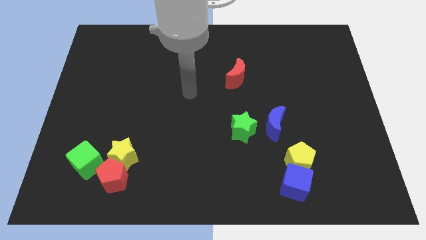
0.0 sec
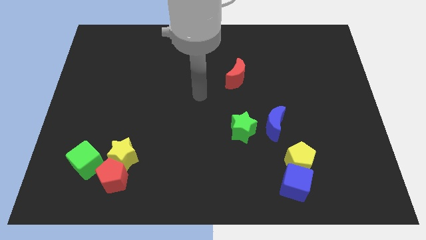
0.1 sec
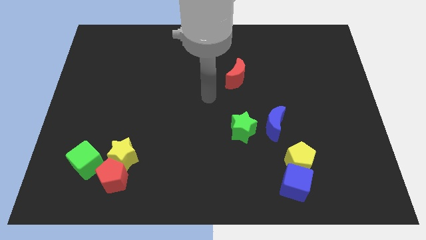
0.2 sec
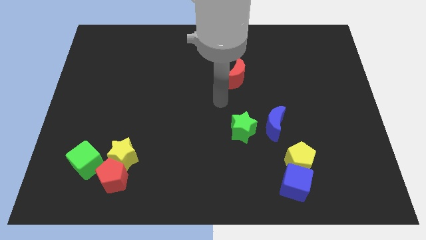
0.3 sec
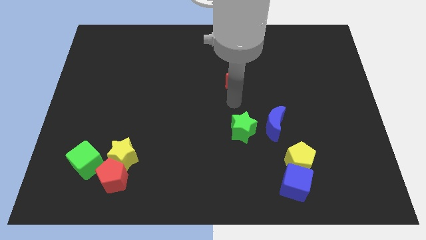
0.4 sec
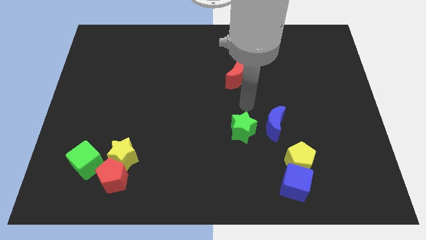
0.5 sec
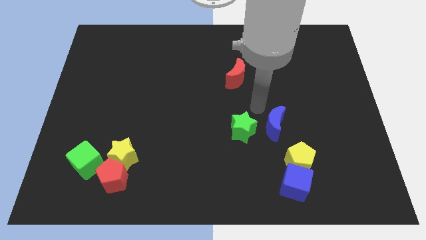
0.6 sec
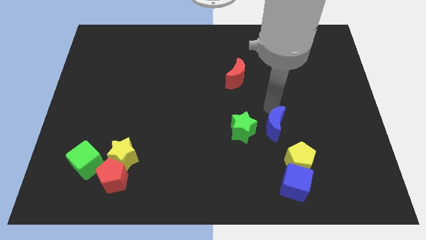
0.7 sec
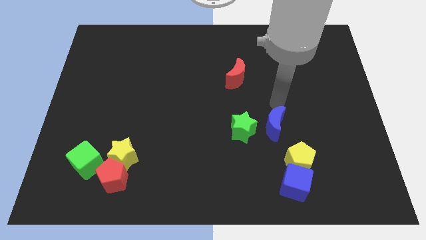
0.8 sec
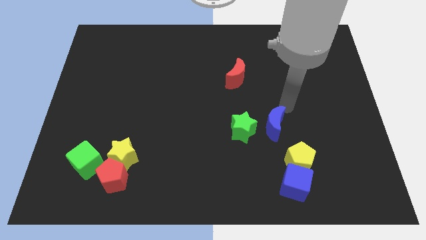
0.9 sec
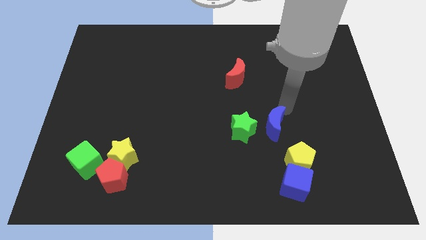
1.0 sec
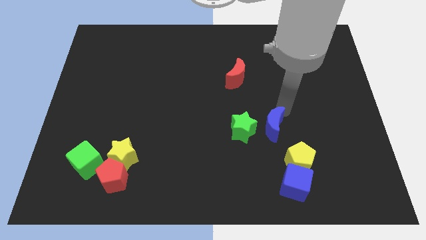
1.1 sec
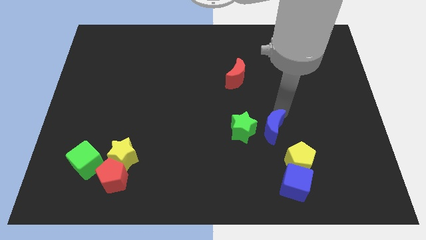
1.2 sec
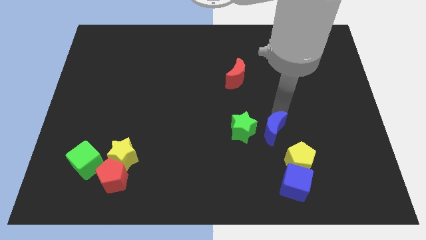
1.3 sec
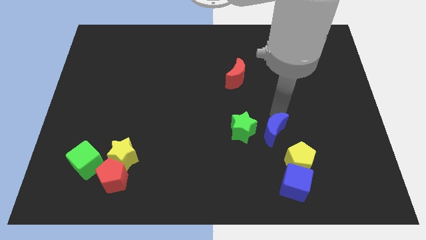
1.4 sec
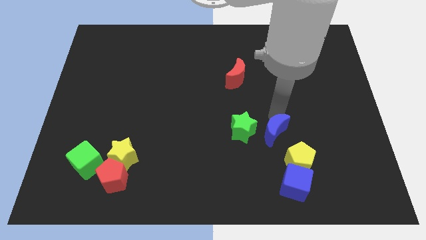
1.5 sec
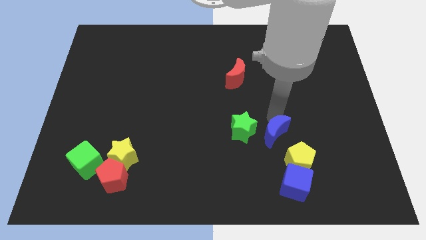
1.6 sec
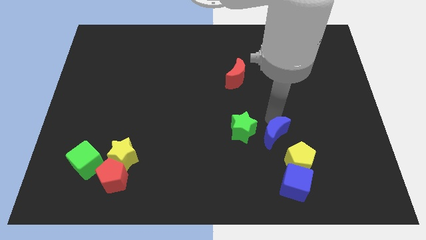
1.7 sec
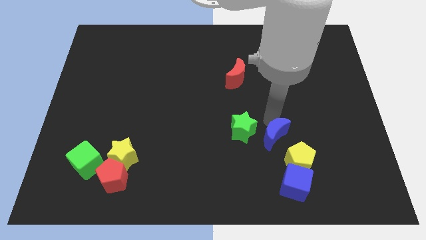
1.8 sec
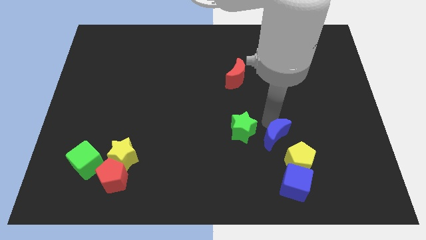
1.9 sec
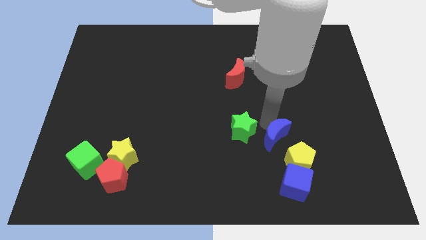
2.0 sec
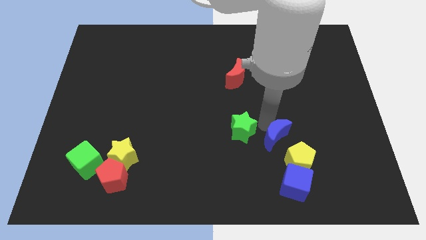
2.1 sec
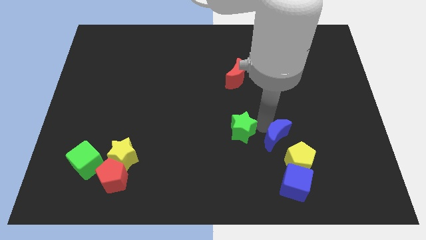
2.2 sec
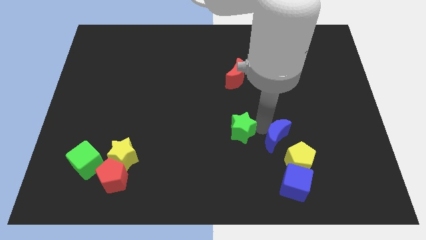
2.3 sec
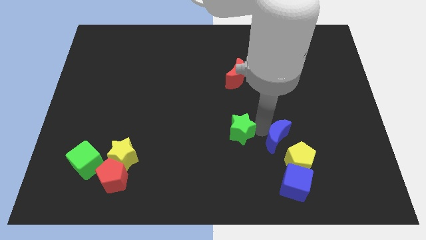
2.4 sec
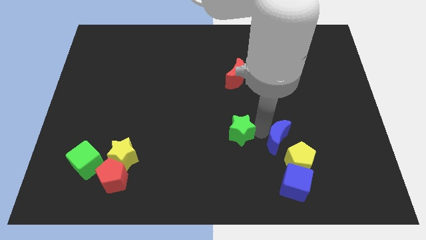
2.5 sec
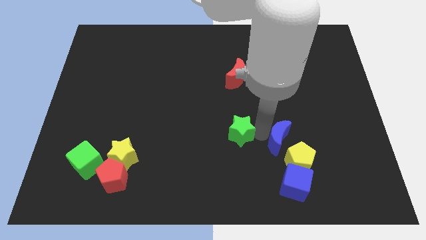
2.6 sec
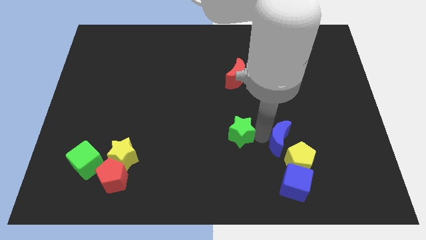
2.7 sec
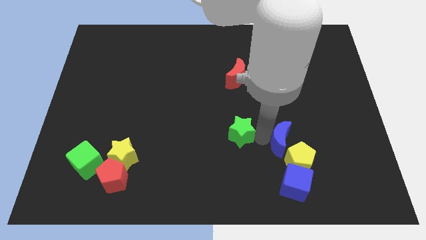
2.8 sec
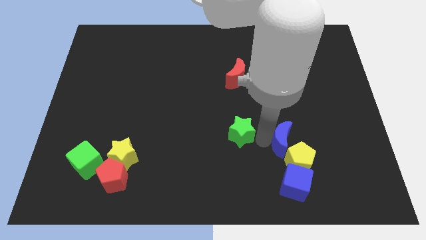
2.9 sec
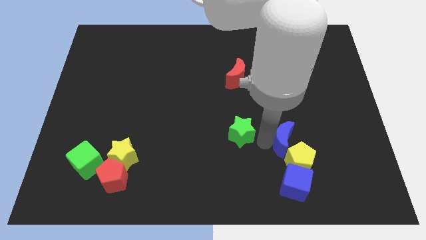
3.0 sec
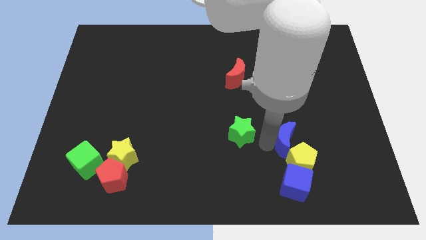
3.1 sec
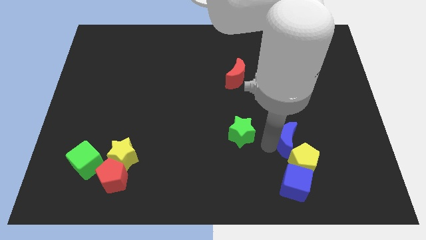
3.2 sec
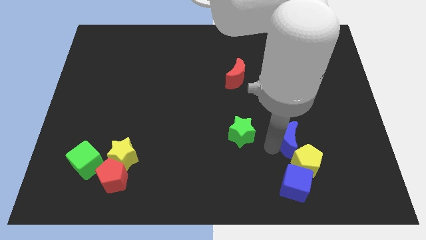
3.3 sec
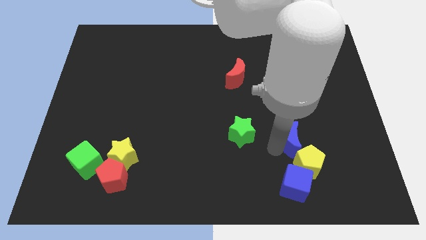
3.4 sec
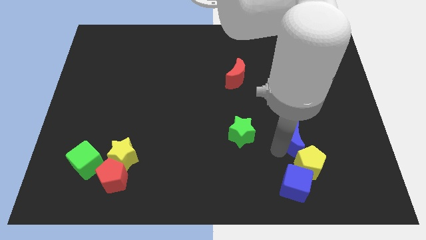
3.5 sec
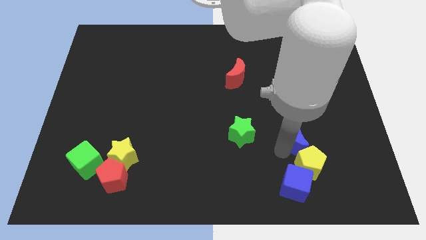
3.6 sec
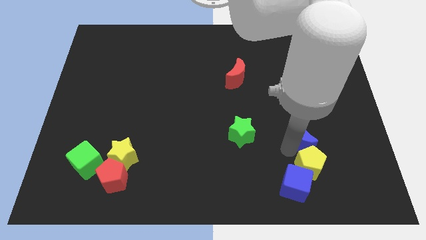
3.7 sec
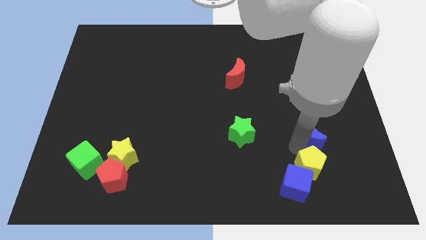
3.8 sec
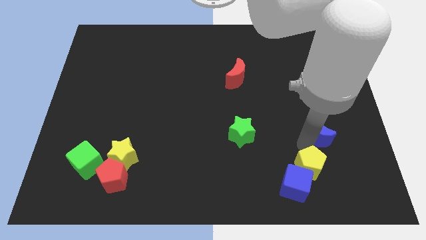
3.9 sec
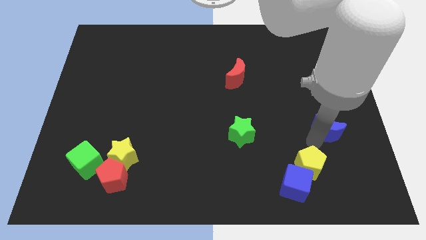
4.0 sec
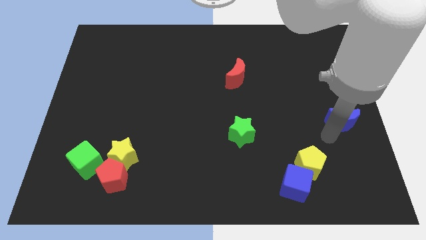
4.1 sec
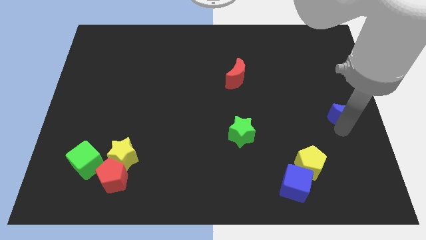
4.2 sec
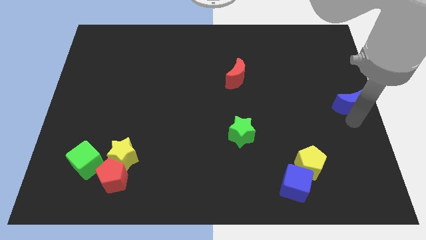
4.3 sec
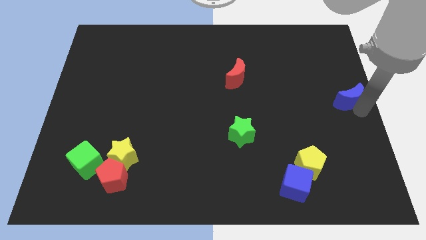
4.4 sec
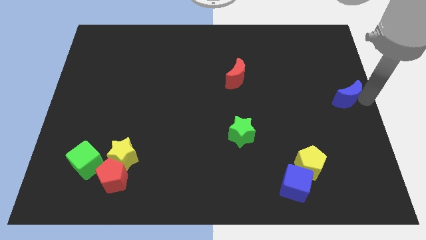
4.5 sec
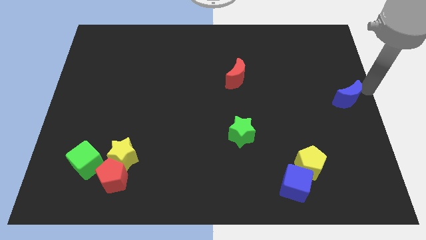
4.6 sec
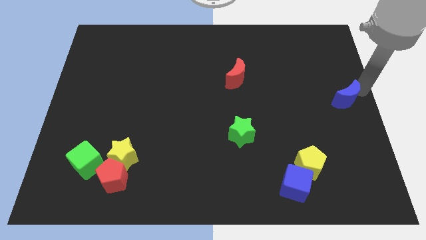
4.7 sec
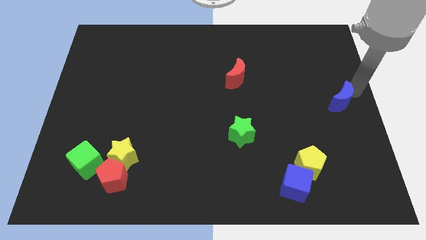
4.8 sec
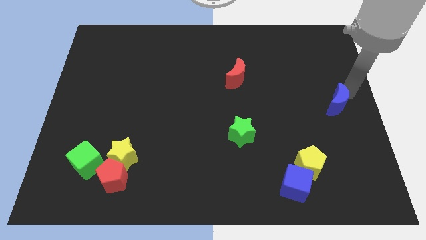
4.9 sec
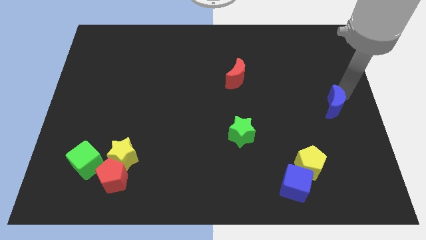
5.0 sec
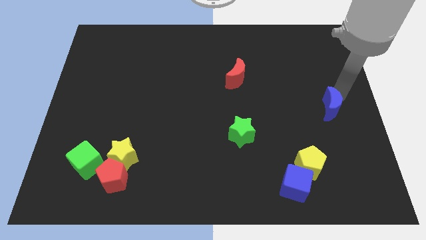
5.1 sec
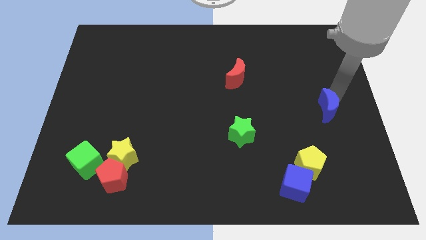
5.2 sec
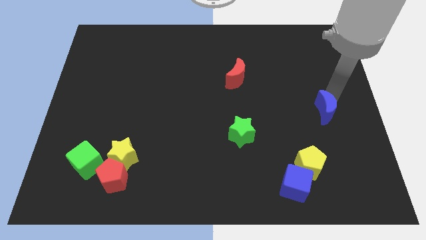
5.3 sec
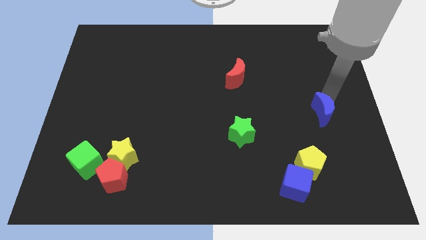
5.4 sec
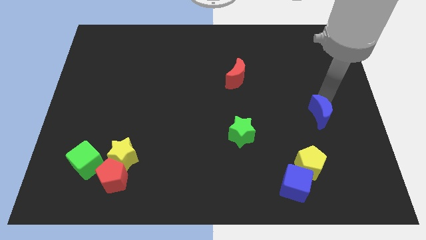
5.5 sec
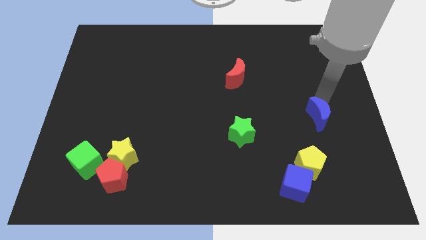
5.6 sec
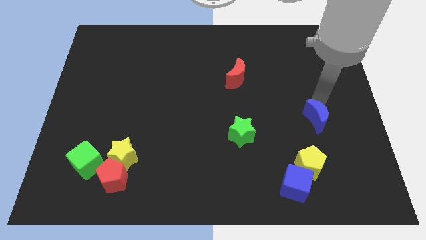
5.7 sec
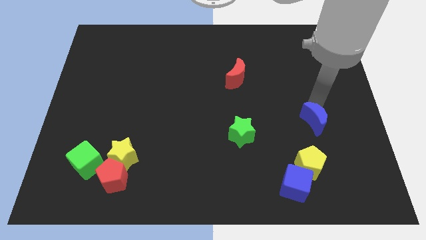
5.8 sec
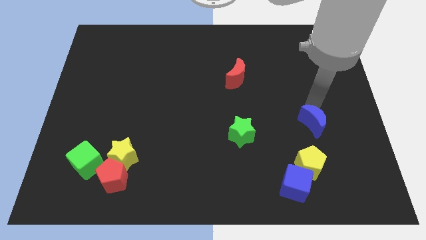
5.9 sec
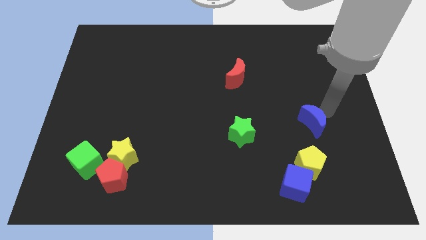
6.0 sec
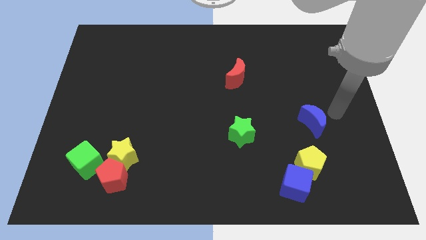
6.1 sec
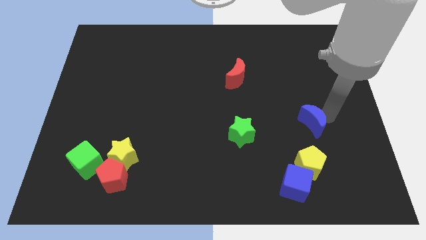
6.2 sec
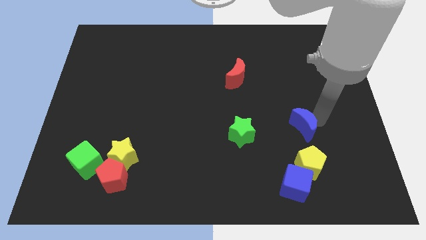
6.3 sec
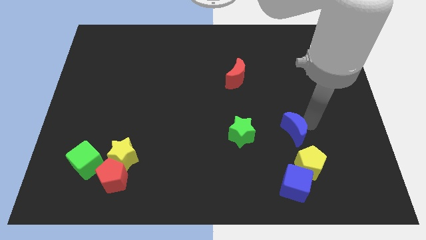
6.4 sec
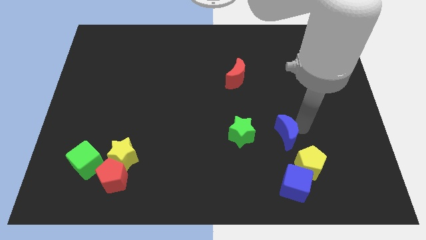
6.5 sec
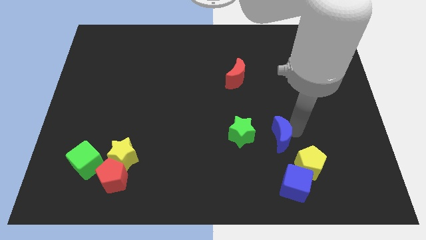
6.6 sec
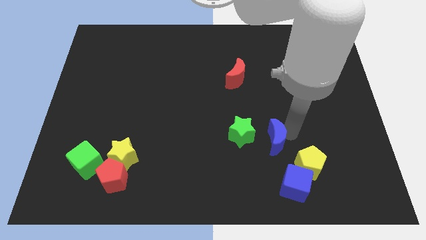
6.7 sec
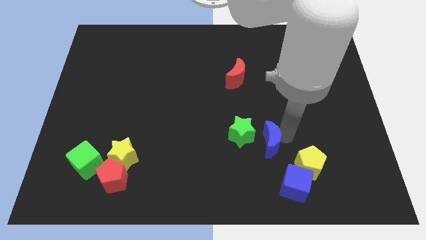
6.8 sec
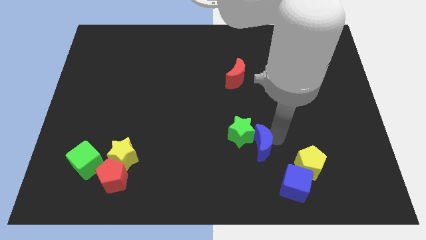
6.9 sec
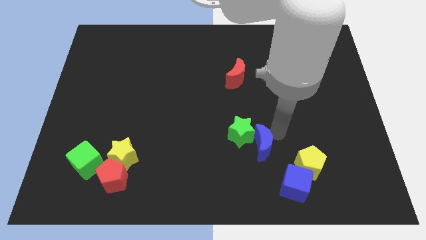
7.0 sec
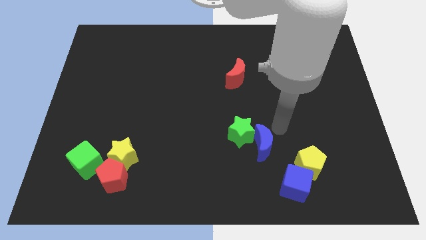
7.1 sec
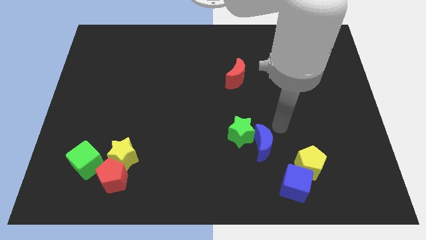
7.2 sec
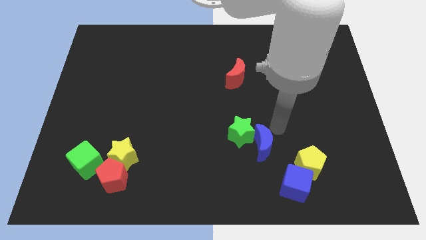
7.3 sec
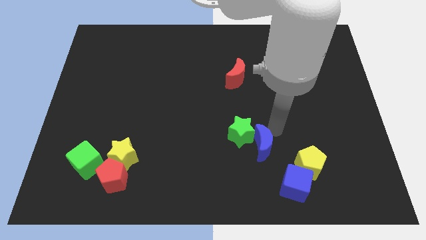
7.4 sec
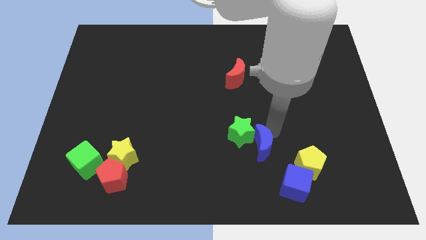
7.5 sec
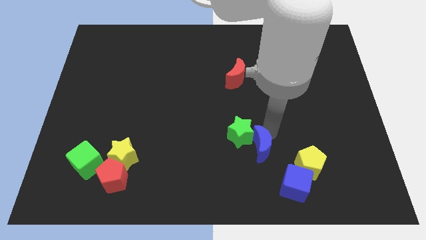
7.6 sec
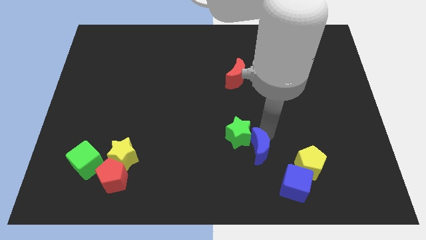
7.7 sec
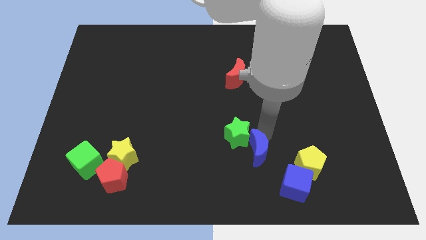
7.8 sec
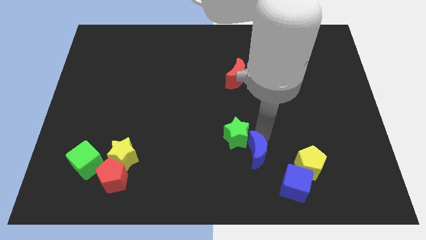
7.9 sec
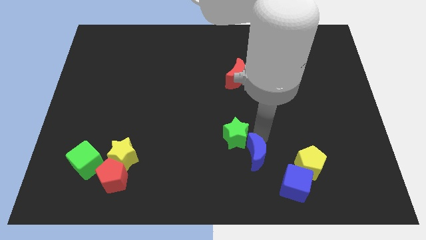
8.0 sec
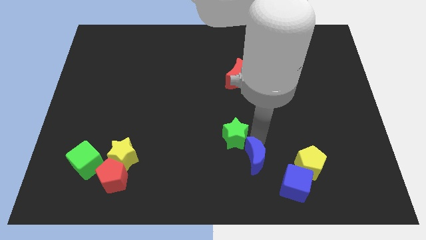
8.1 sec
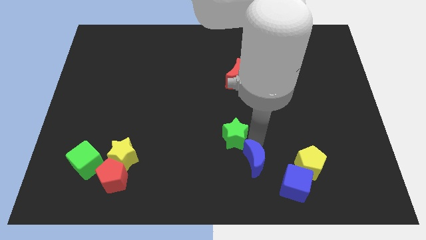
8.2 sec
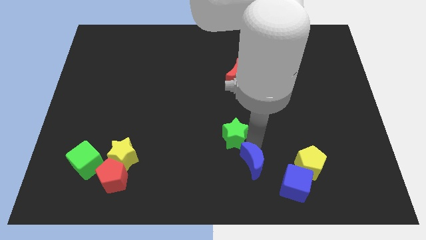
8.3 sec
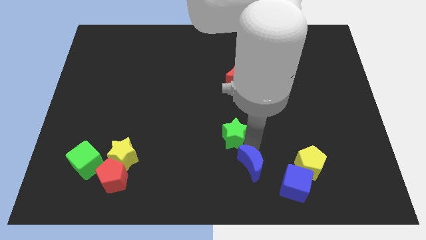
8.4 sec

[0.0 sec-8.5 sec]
move the blue moon to the bottom side
